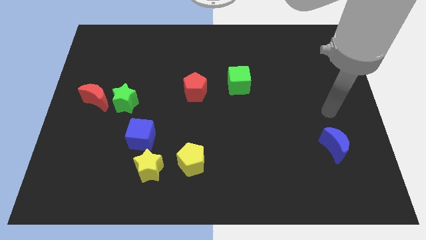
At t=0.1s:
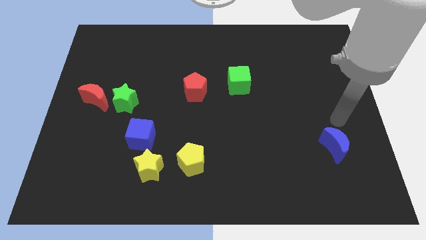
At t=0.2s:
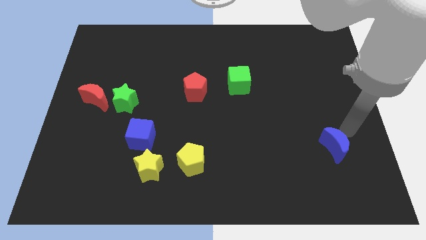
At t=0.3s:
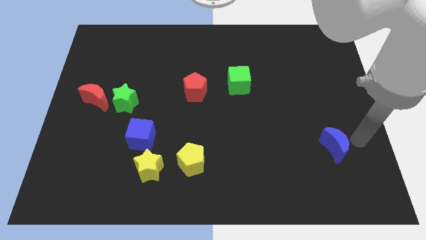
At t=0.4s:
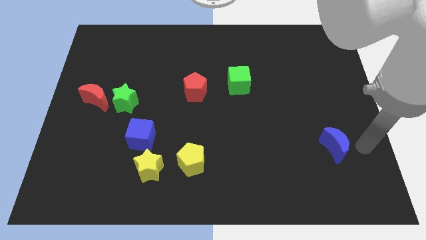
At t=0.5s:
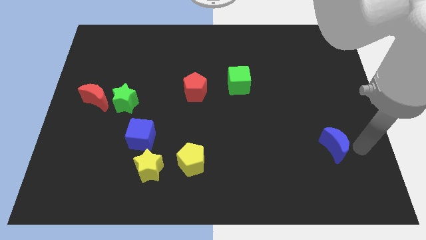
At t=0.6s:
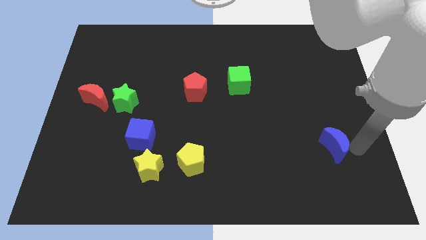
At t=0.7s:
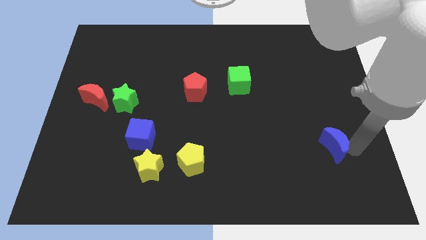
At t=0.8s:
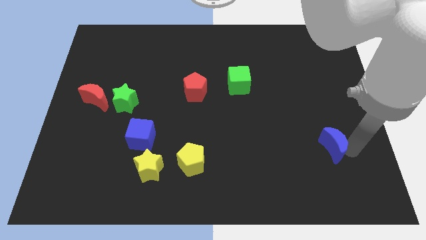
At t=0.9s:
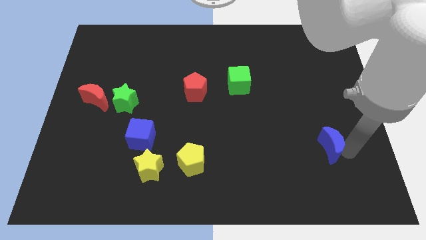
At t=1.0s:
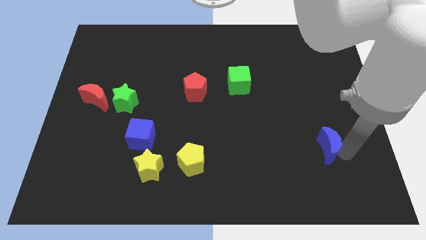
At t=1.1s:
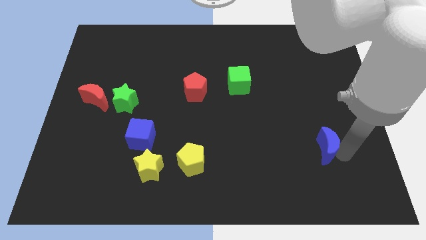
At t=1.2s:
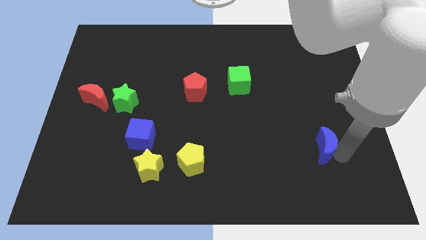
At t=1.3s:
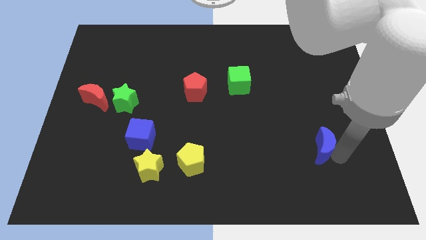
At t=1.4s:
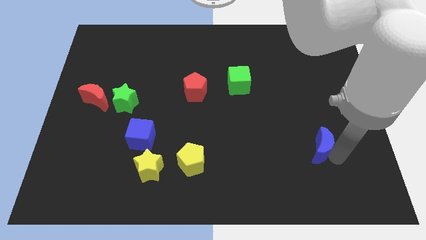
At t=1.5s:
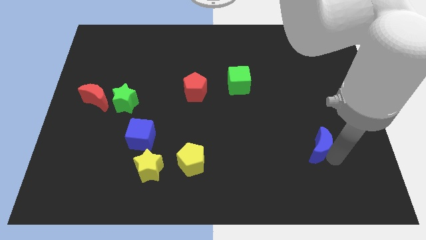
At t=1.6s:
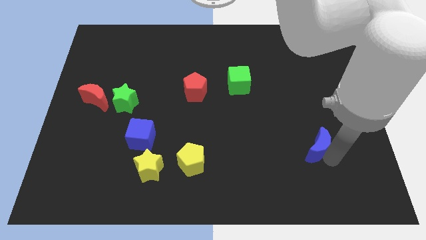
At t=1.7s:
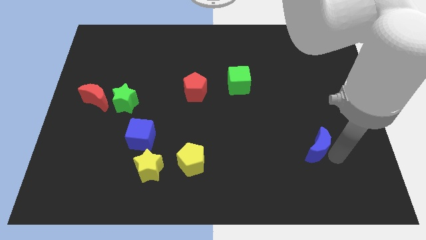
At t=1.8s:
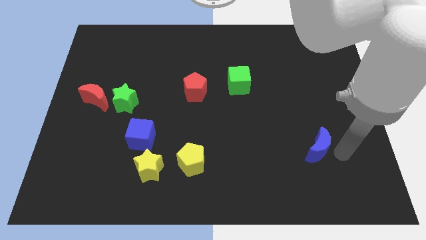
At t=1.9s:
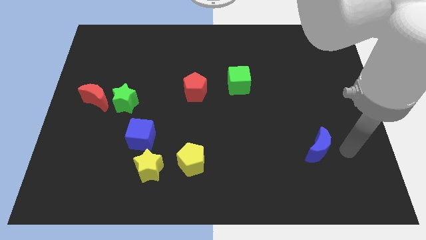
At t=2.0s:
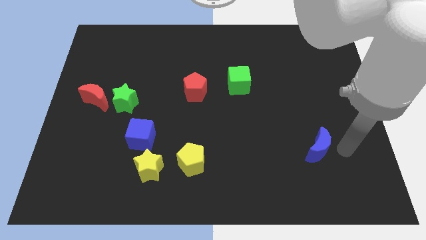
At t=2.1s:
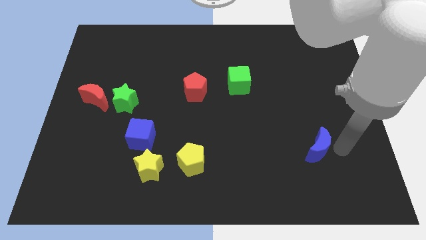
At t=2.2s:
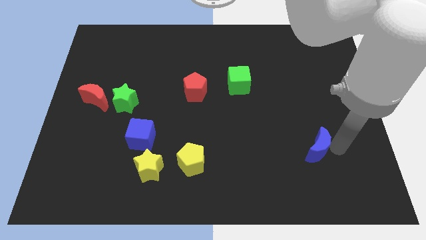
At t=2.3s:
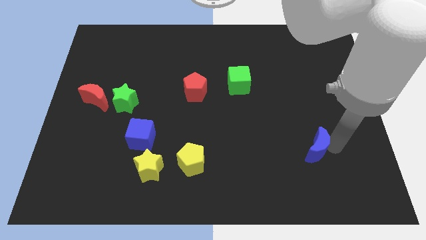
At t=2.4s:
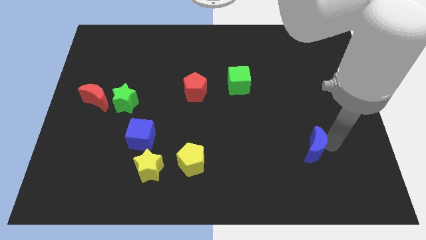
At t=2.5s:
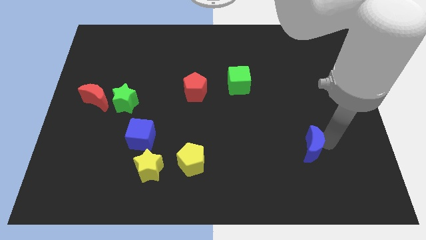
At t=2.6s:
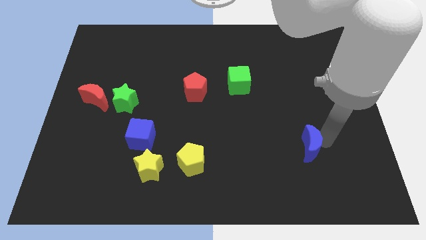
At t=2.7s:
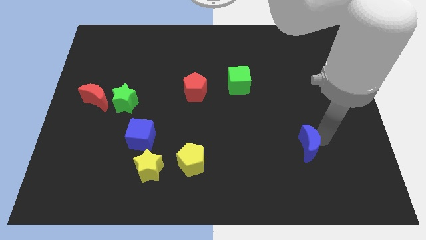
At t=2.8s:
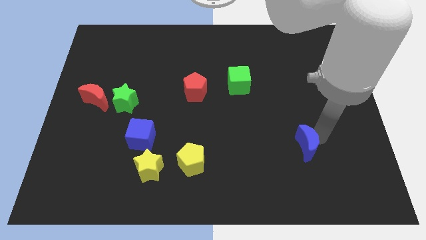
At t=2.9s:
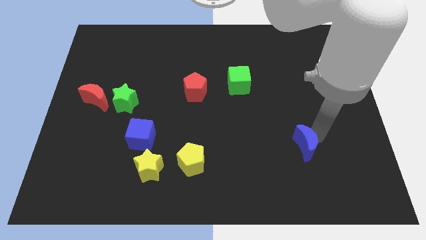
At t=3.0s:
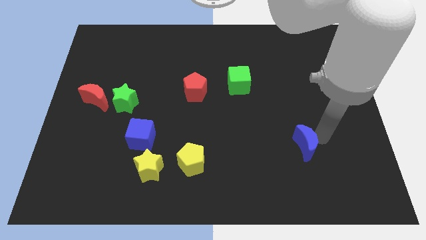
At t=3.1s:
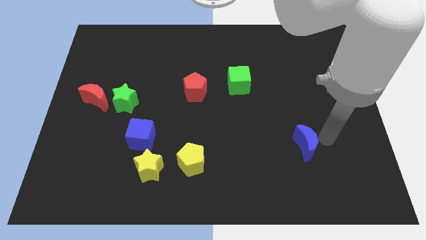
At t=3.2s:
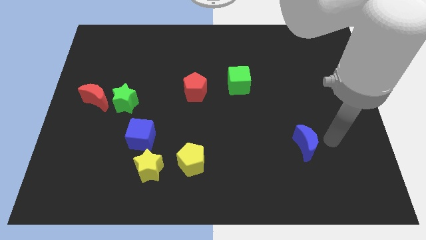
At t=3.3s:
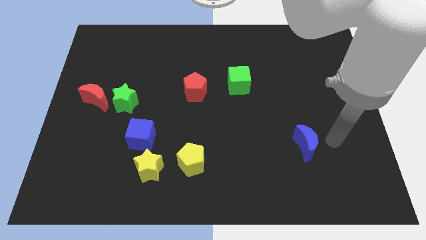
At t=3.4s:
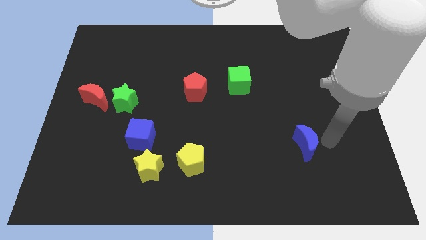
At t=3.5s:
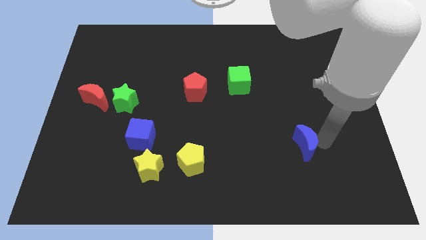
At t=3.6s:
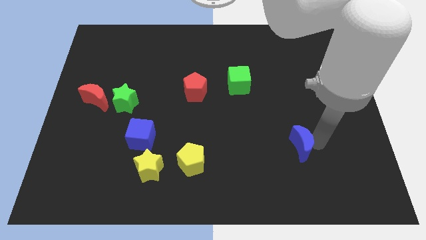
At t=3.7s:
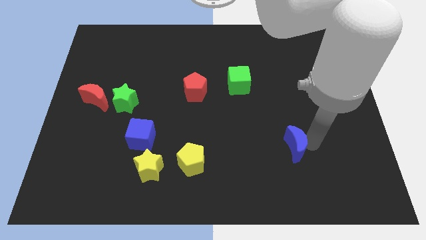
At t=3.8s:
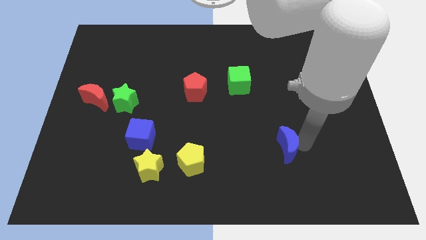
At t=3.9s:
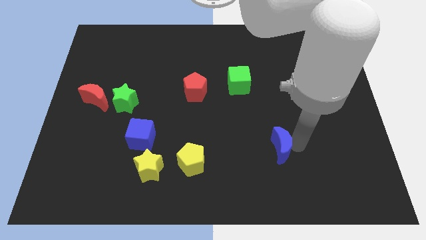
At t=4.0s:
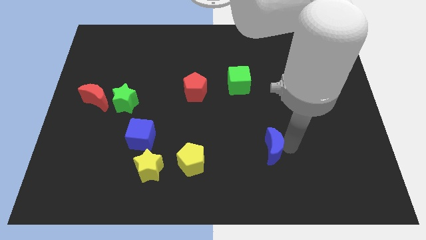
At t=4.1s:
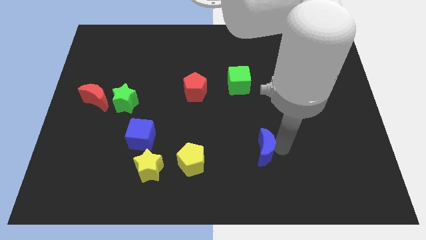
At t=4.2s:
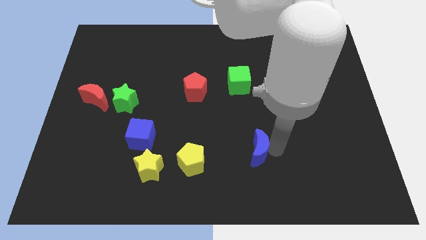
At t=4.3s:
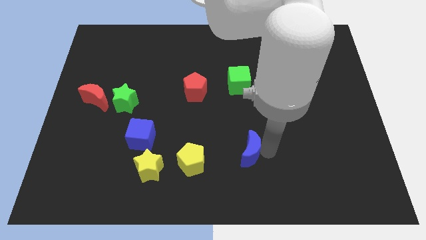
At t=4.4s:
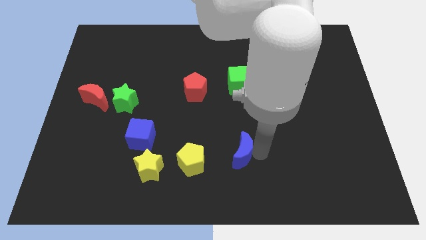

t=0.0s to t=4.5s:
push the blue moon to the left

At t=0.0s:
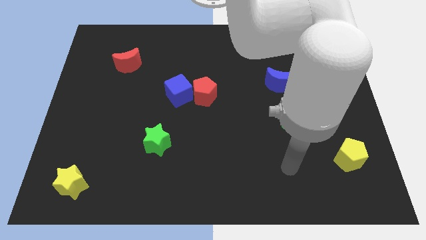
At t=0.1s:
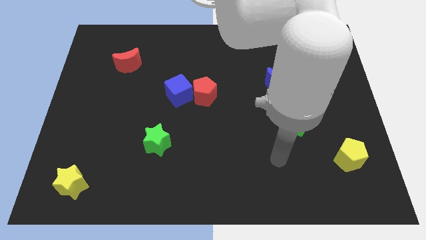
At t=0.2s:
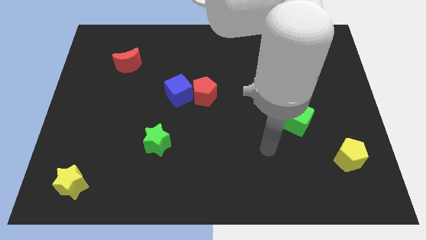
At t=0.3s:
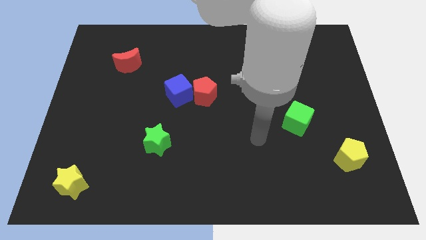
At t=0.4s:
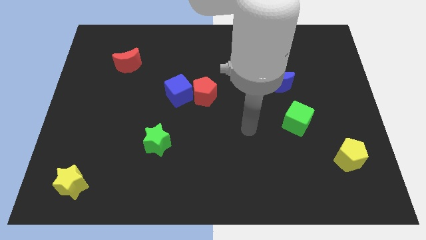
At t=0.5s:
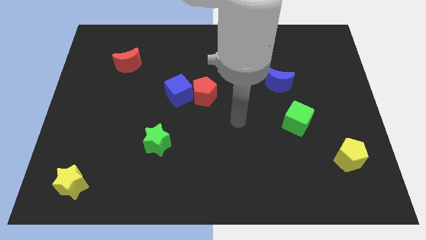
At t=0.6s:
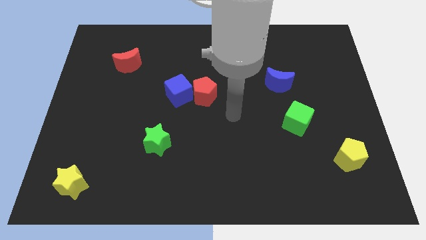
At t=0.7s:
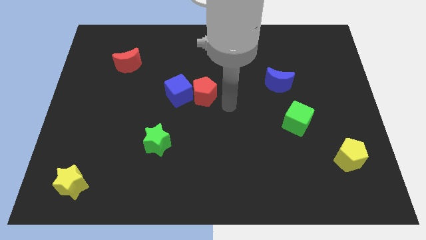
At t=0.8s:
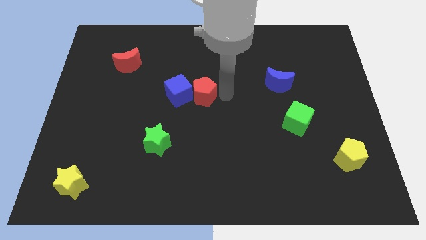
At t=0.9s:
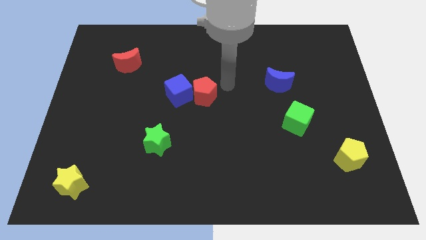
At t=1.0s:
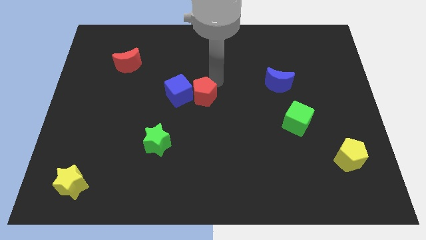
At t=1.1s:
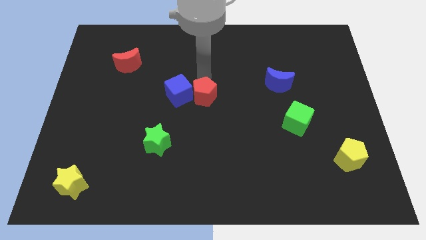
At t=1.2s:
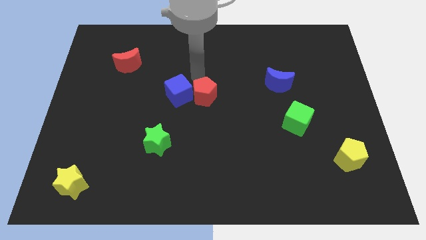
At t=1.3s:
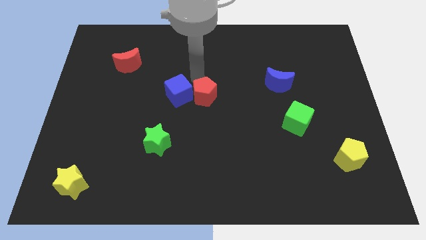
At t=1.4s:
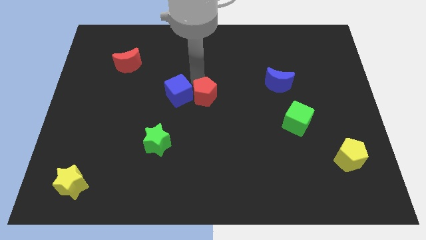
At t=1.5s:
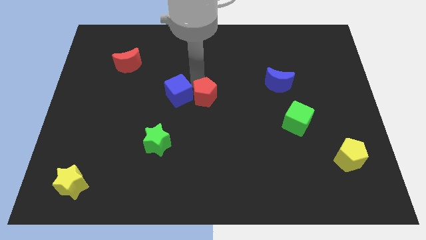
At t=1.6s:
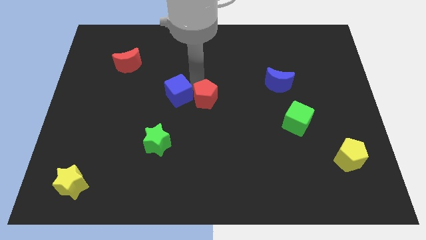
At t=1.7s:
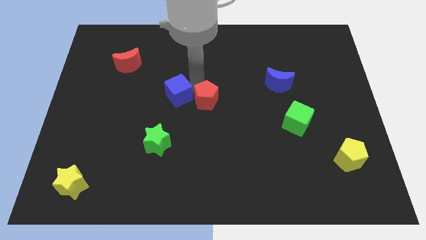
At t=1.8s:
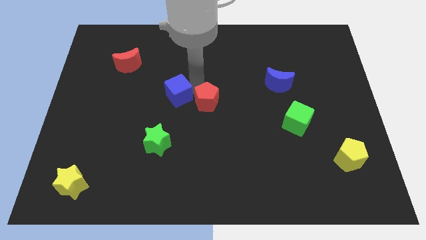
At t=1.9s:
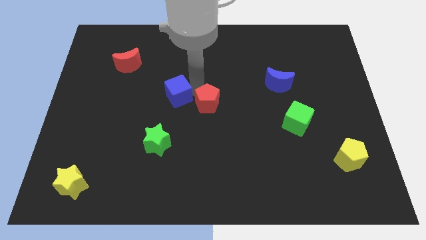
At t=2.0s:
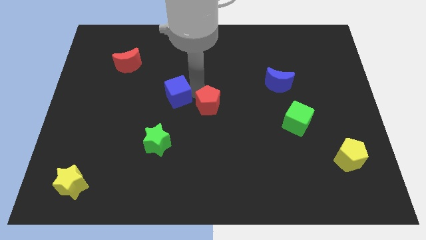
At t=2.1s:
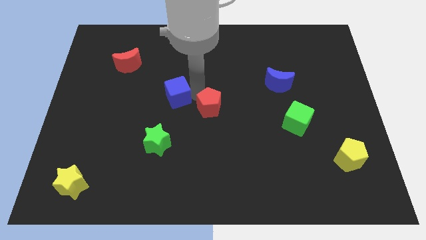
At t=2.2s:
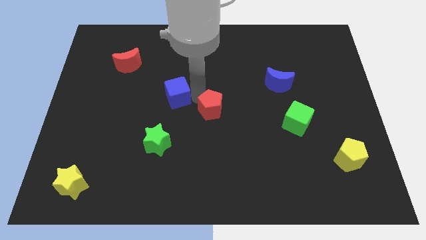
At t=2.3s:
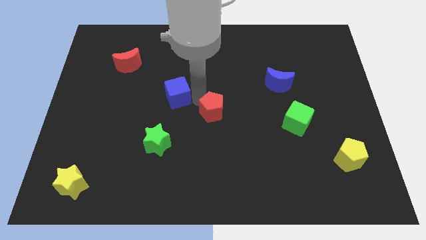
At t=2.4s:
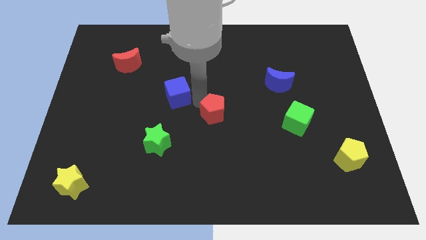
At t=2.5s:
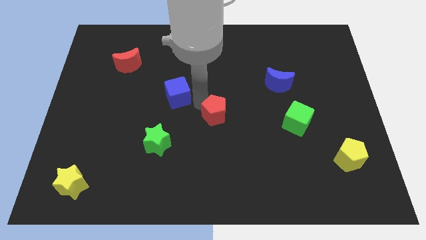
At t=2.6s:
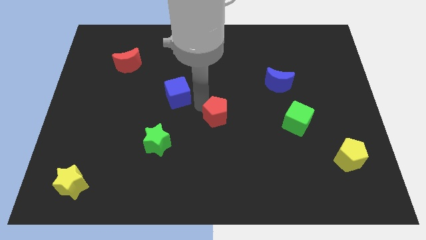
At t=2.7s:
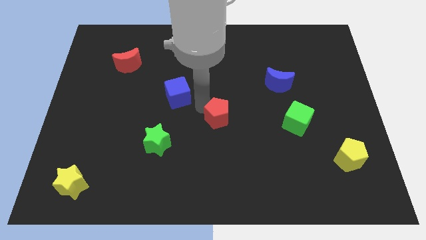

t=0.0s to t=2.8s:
slightly push the red pentagon diagonally downwards and right

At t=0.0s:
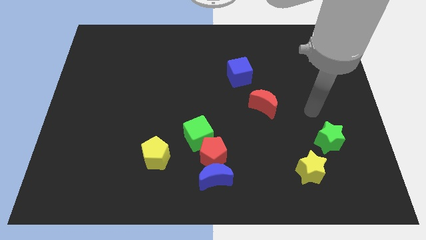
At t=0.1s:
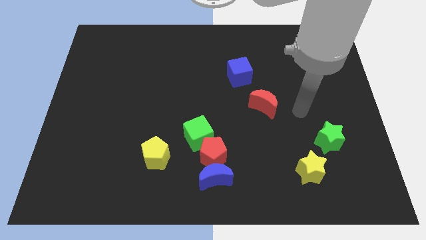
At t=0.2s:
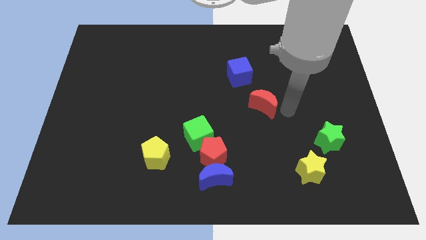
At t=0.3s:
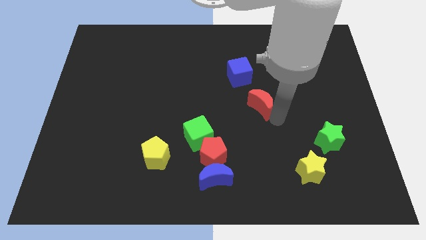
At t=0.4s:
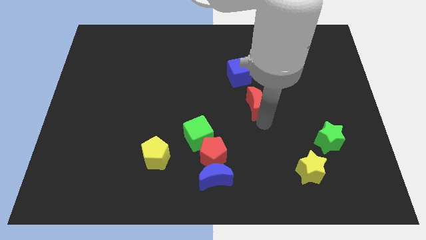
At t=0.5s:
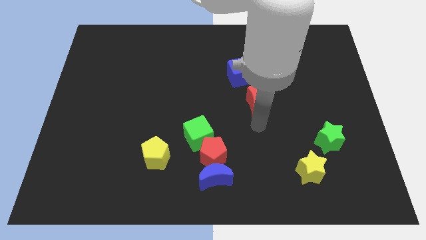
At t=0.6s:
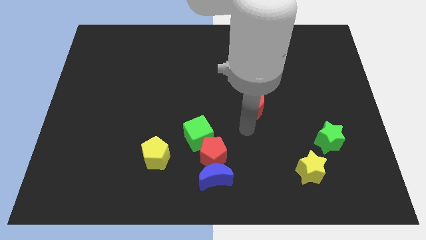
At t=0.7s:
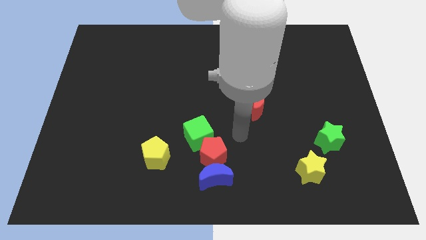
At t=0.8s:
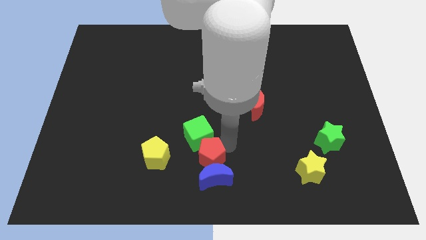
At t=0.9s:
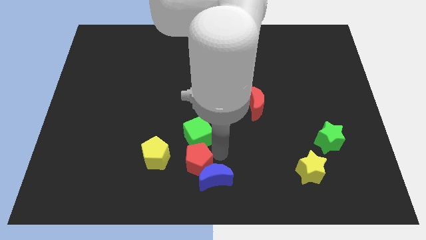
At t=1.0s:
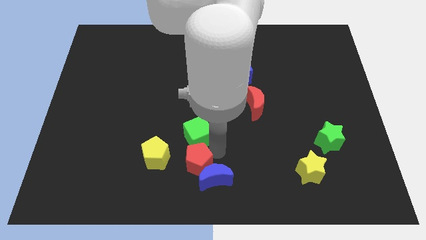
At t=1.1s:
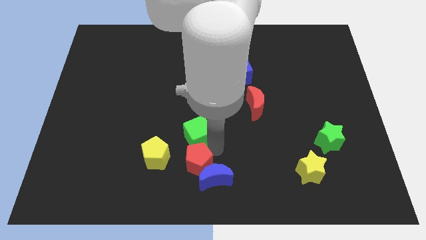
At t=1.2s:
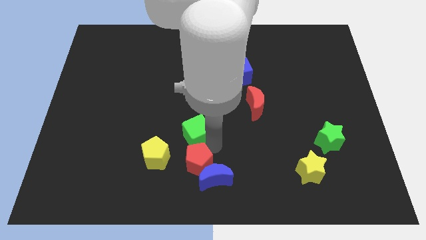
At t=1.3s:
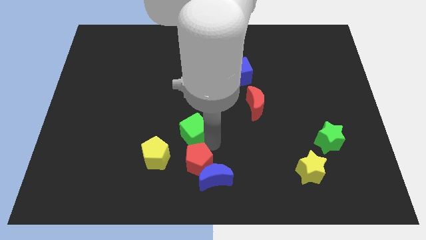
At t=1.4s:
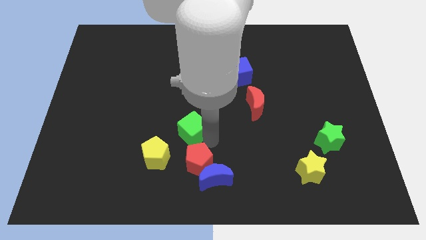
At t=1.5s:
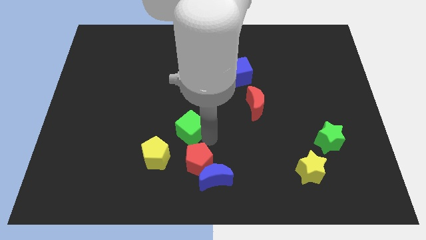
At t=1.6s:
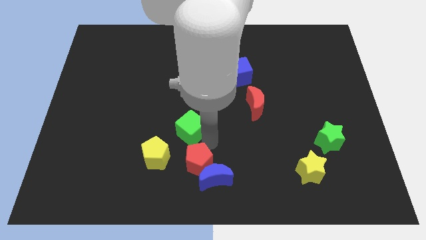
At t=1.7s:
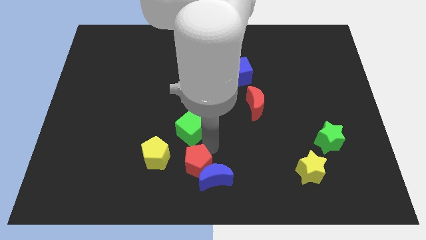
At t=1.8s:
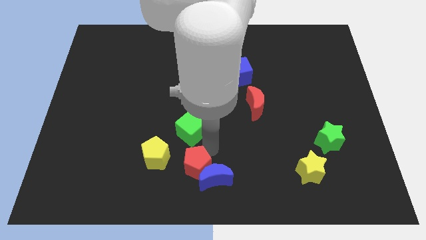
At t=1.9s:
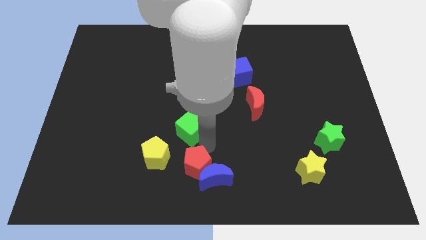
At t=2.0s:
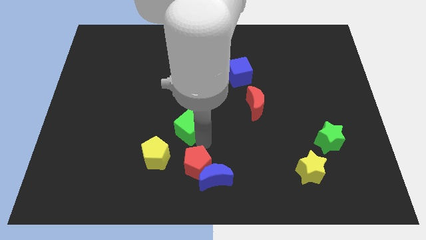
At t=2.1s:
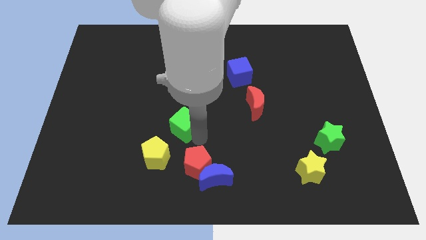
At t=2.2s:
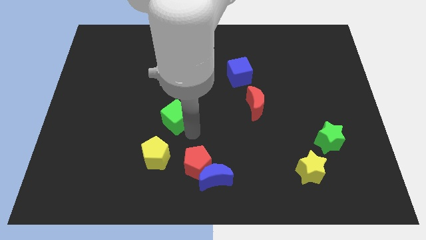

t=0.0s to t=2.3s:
slightly slide the green cube up and left diagonally
